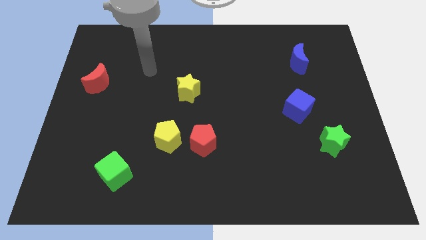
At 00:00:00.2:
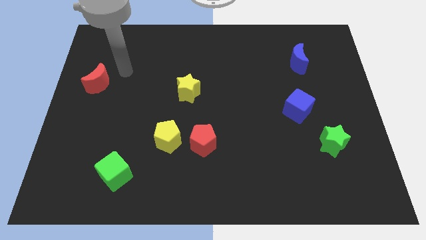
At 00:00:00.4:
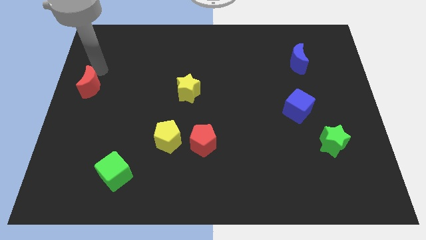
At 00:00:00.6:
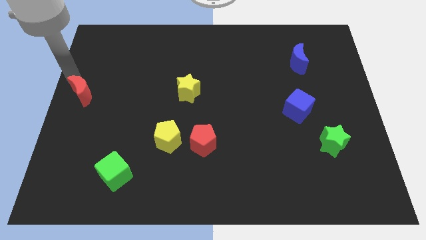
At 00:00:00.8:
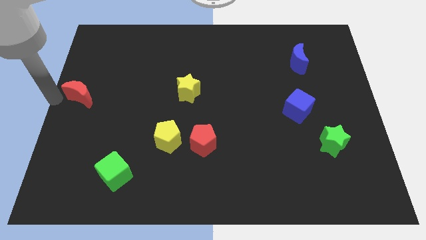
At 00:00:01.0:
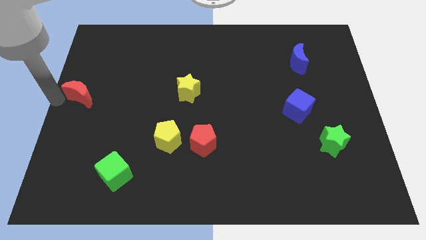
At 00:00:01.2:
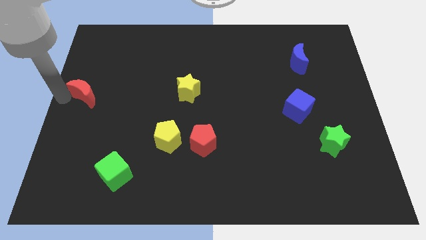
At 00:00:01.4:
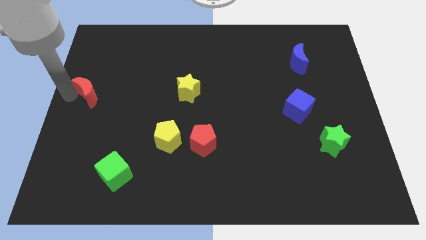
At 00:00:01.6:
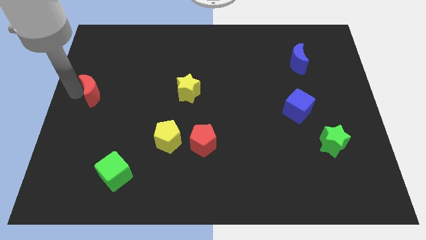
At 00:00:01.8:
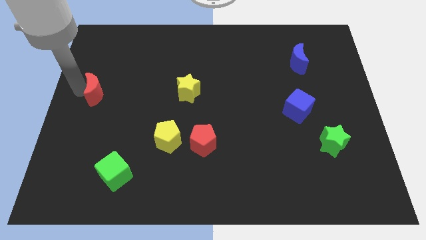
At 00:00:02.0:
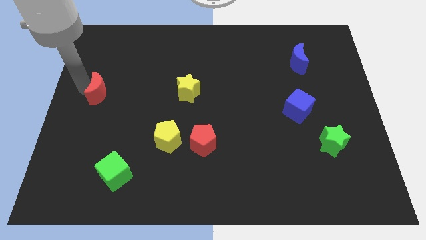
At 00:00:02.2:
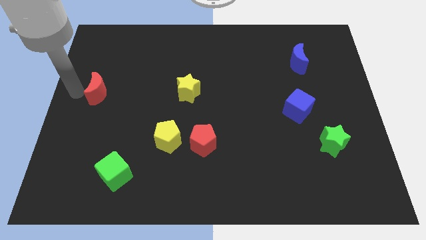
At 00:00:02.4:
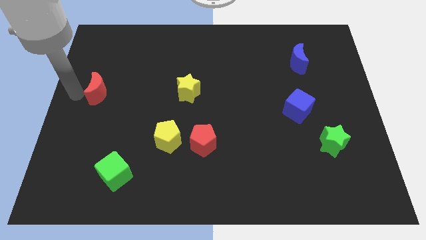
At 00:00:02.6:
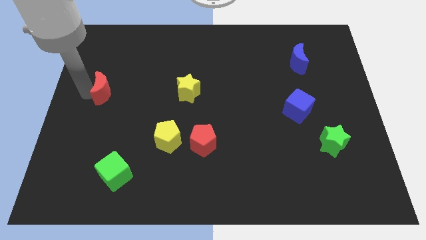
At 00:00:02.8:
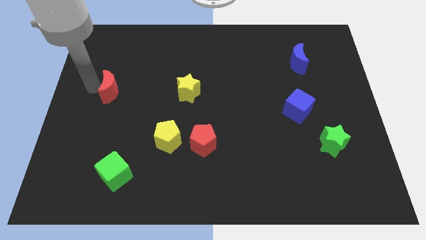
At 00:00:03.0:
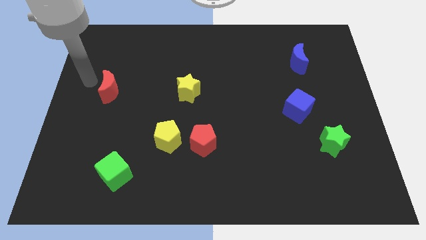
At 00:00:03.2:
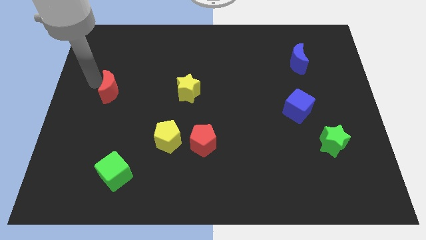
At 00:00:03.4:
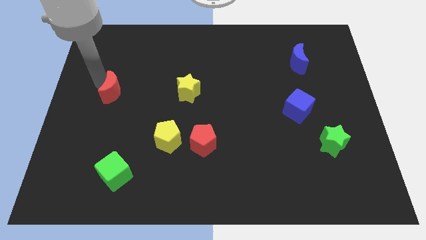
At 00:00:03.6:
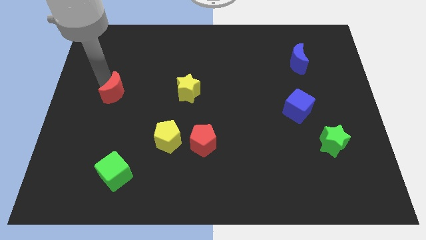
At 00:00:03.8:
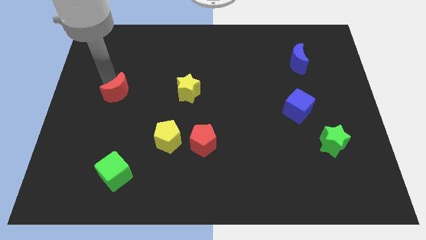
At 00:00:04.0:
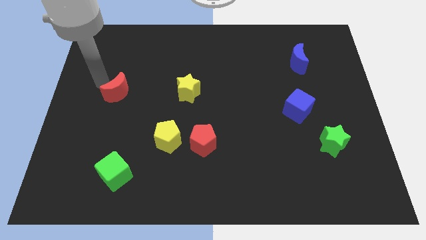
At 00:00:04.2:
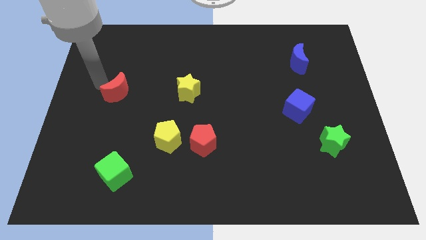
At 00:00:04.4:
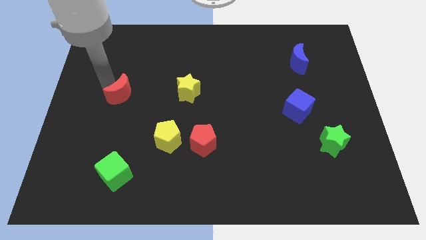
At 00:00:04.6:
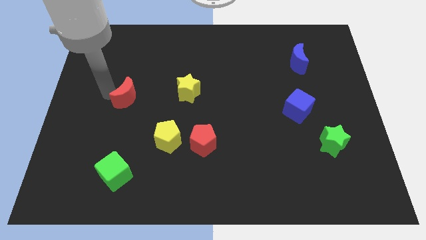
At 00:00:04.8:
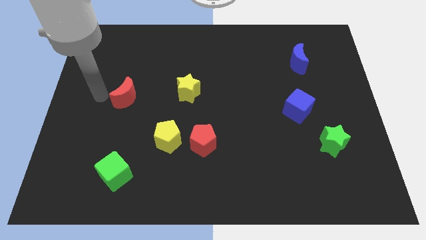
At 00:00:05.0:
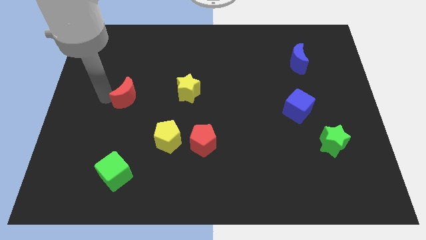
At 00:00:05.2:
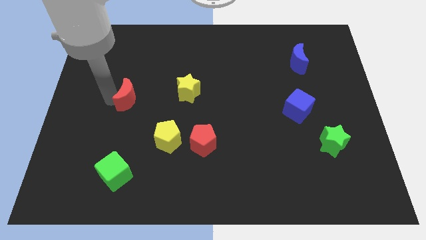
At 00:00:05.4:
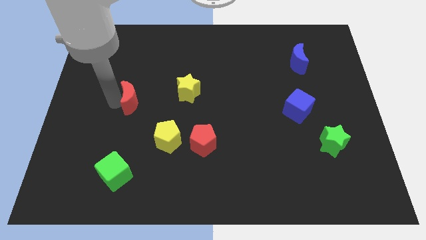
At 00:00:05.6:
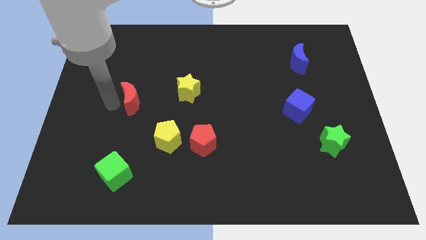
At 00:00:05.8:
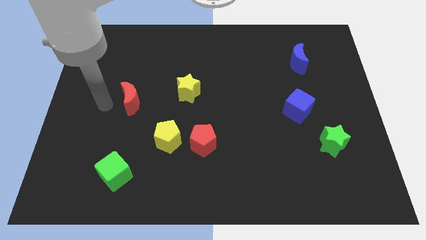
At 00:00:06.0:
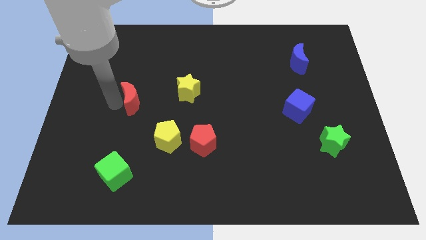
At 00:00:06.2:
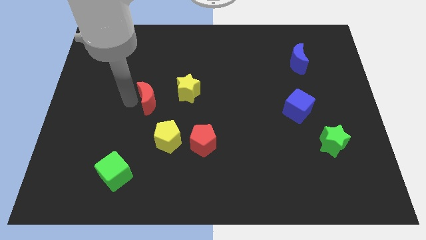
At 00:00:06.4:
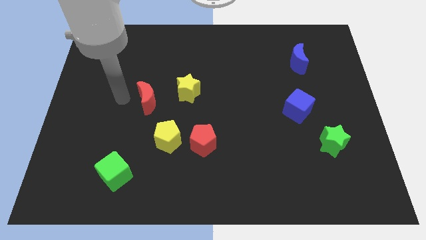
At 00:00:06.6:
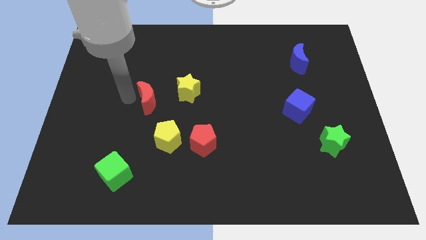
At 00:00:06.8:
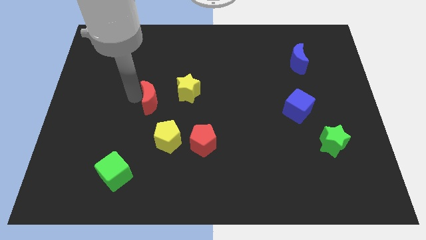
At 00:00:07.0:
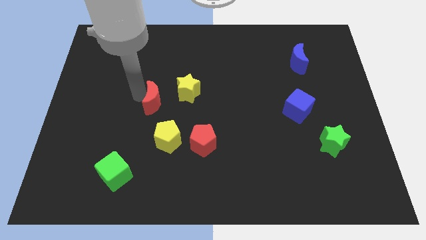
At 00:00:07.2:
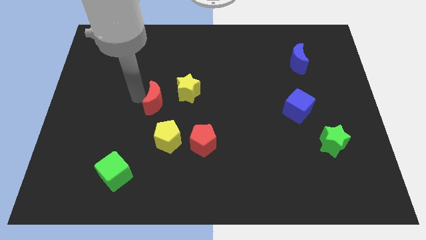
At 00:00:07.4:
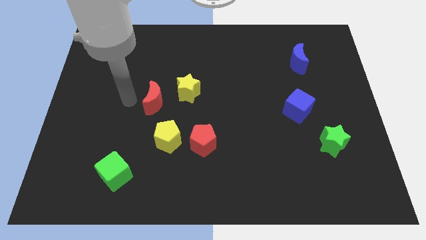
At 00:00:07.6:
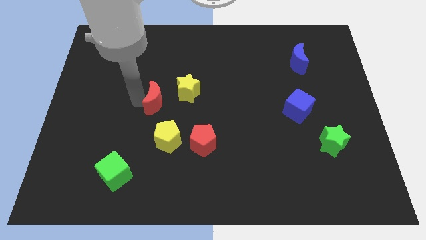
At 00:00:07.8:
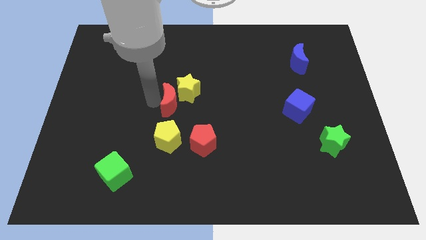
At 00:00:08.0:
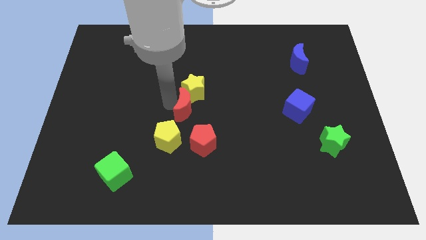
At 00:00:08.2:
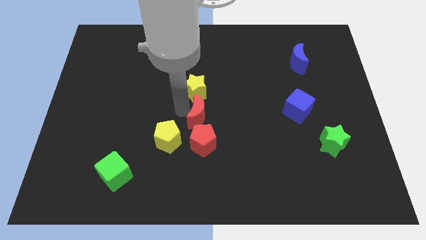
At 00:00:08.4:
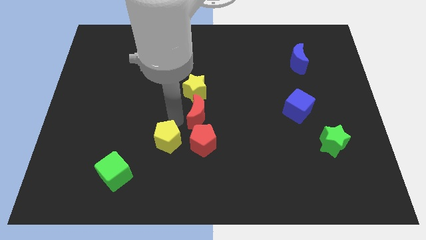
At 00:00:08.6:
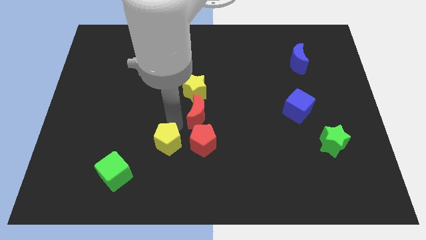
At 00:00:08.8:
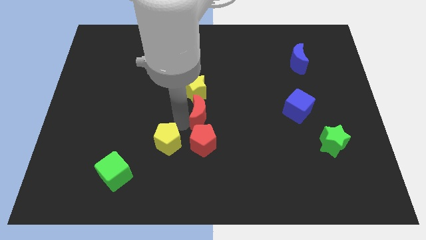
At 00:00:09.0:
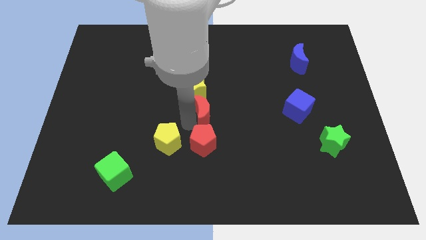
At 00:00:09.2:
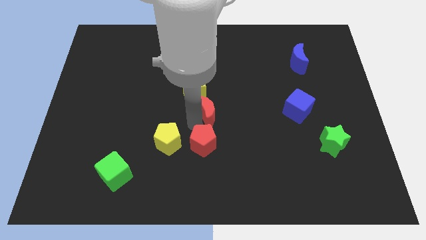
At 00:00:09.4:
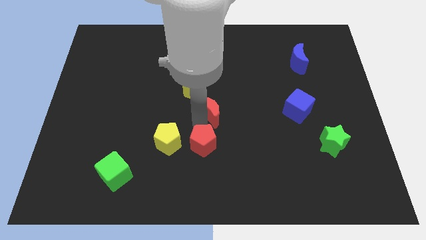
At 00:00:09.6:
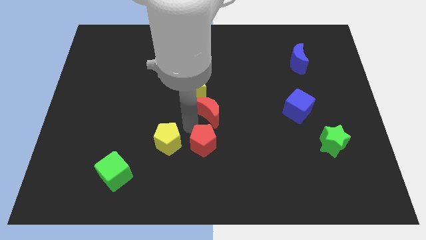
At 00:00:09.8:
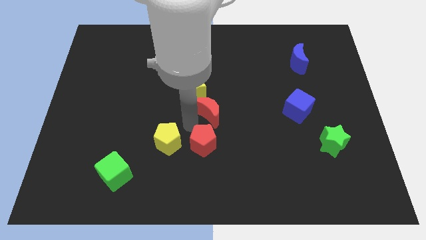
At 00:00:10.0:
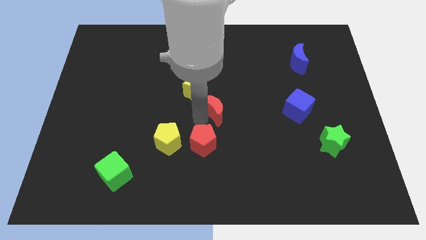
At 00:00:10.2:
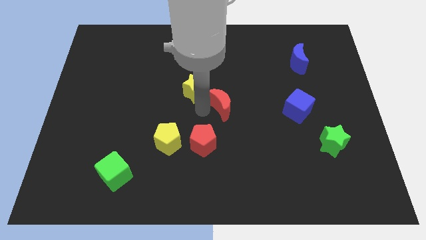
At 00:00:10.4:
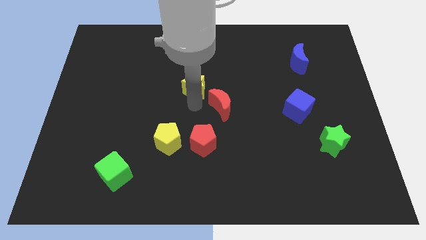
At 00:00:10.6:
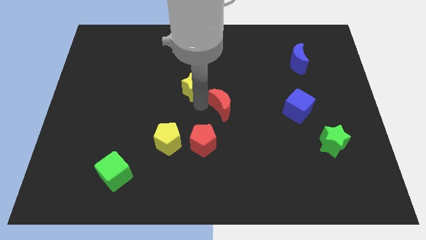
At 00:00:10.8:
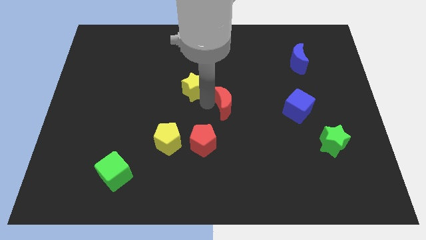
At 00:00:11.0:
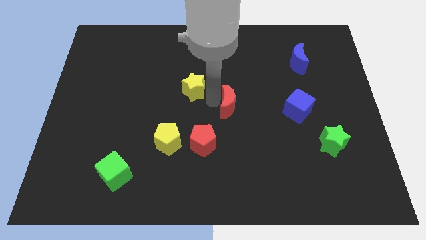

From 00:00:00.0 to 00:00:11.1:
push the red moon to the left side of the blue cube

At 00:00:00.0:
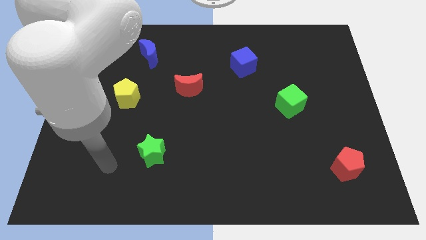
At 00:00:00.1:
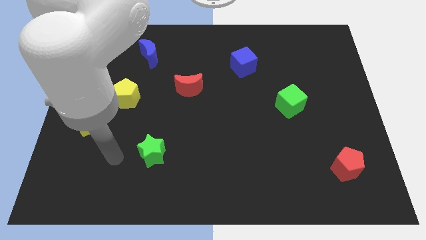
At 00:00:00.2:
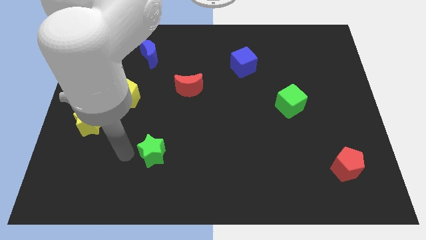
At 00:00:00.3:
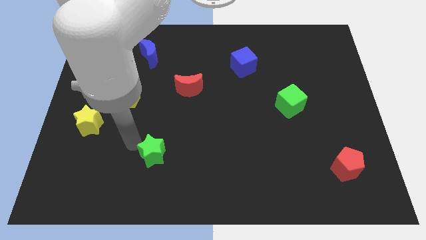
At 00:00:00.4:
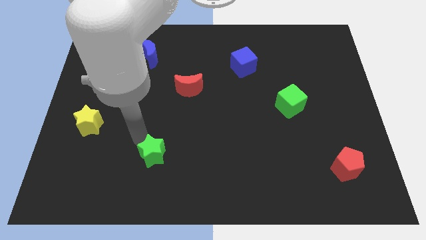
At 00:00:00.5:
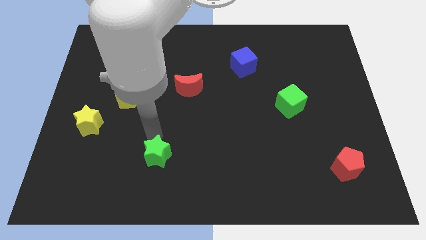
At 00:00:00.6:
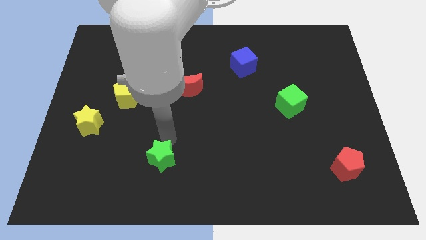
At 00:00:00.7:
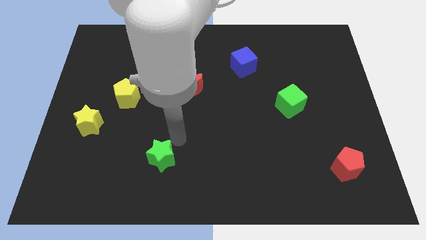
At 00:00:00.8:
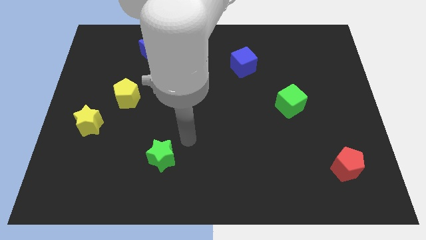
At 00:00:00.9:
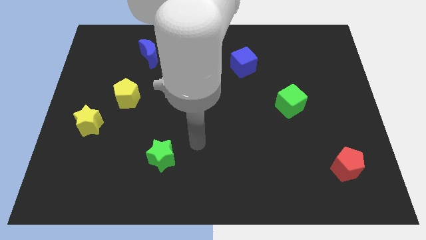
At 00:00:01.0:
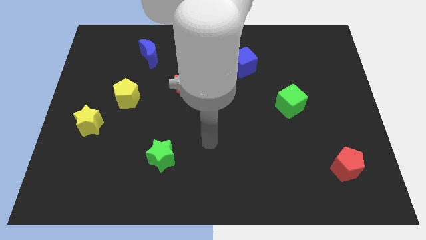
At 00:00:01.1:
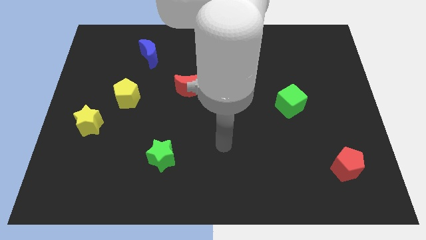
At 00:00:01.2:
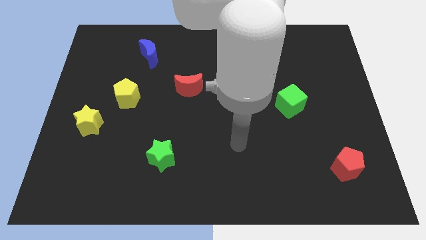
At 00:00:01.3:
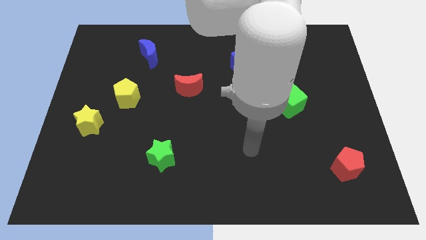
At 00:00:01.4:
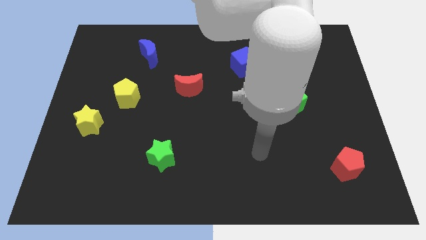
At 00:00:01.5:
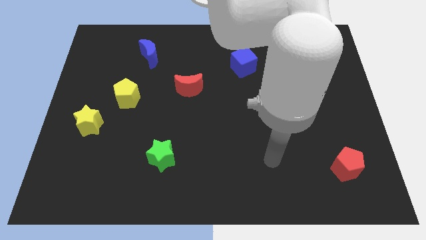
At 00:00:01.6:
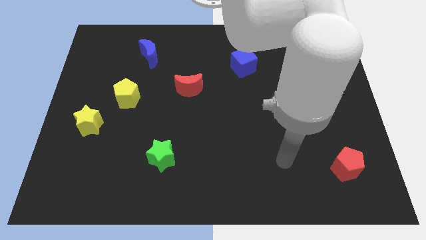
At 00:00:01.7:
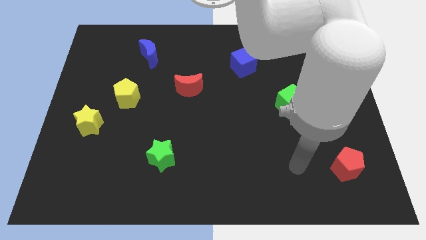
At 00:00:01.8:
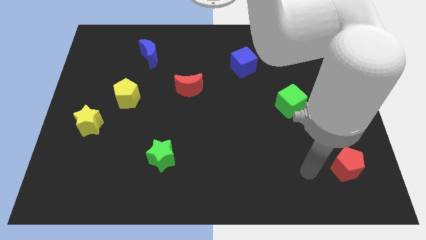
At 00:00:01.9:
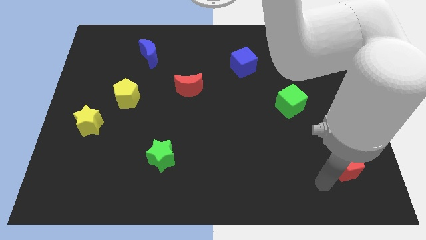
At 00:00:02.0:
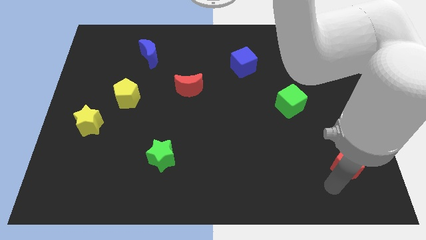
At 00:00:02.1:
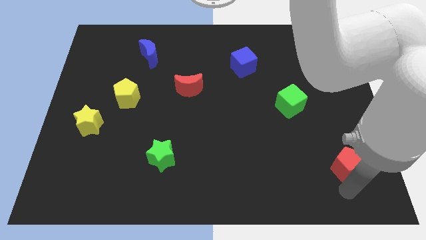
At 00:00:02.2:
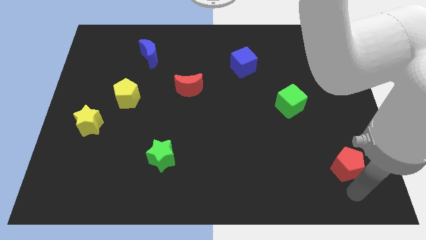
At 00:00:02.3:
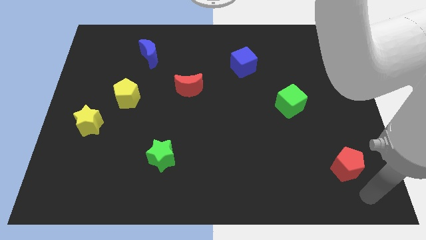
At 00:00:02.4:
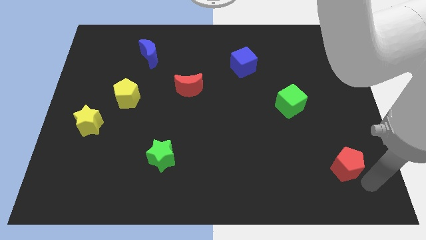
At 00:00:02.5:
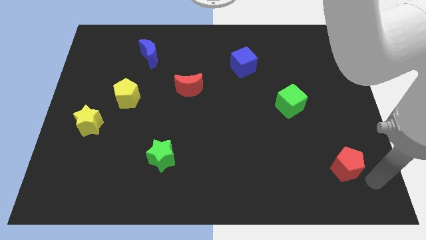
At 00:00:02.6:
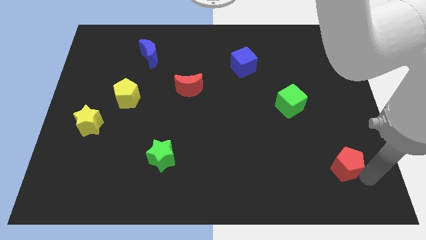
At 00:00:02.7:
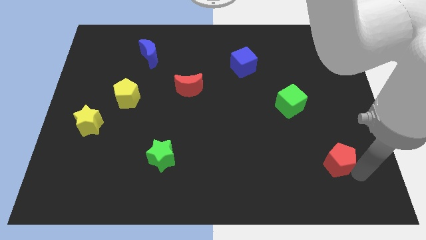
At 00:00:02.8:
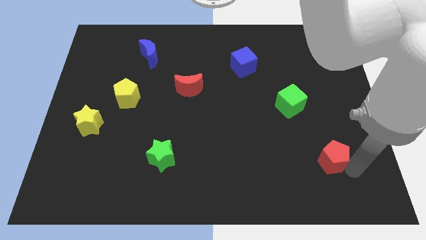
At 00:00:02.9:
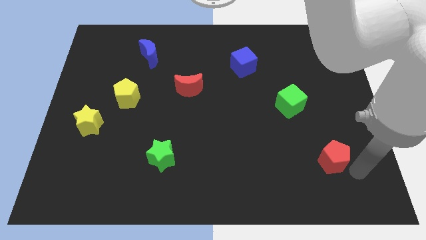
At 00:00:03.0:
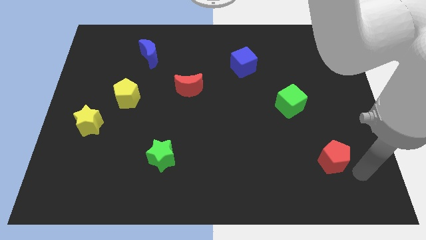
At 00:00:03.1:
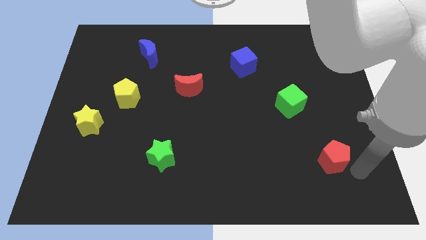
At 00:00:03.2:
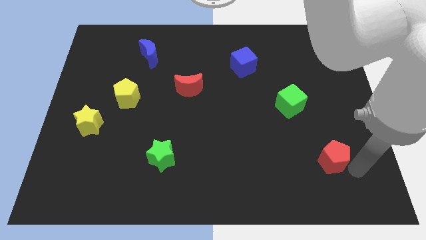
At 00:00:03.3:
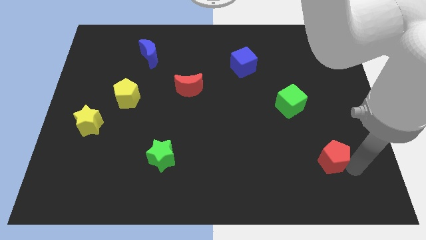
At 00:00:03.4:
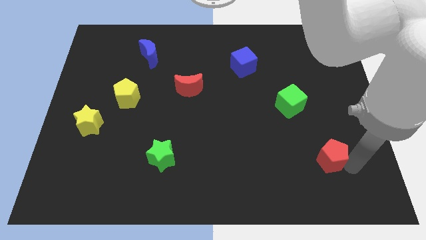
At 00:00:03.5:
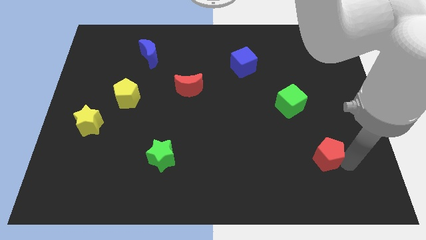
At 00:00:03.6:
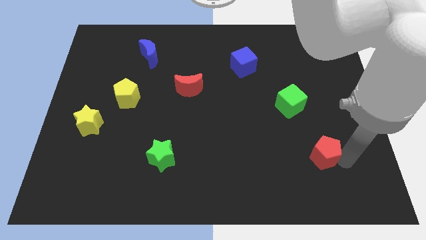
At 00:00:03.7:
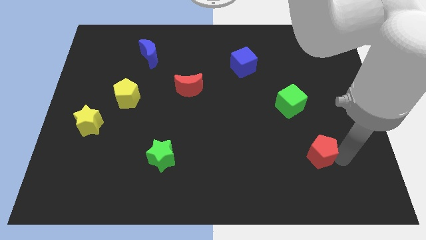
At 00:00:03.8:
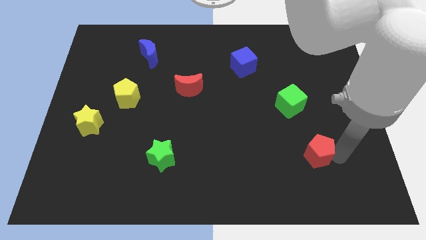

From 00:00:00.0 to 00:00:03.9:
move the red pentagon below the green cube
